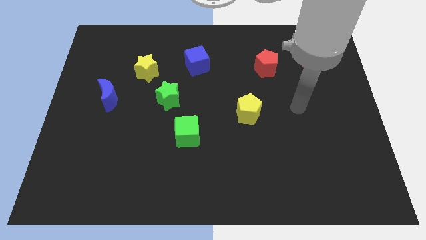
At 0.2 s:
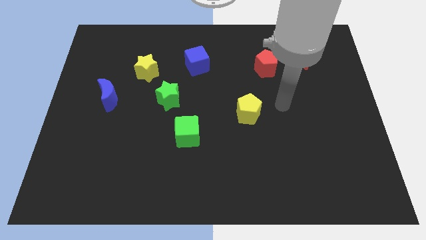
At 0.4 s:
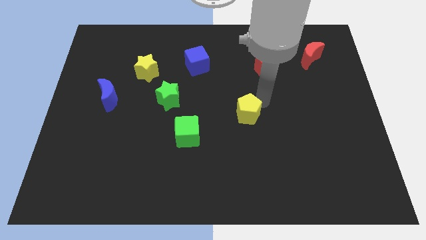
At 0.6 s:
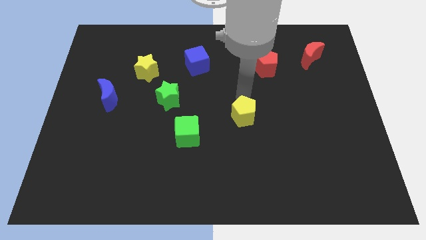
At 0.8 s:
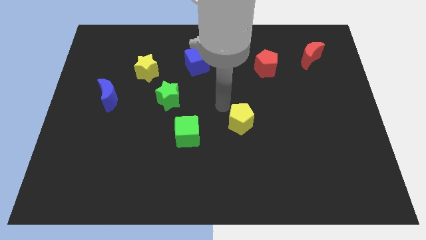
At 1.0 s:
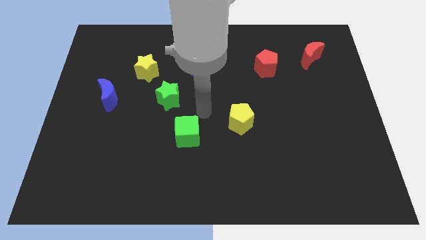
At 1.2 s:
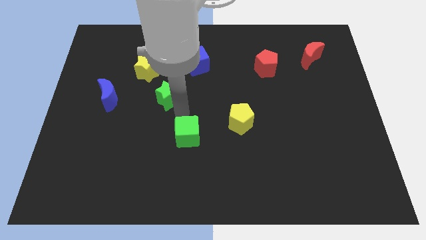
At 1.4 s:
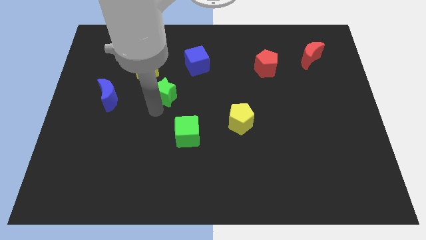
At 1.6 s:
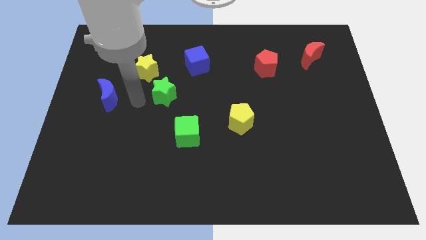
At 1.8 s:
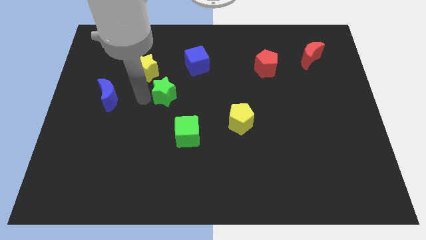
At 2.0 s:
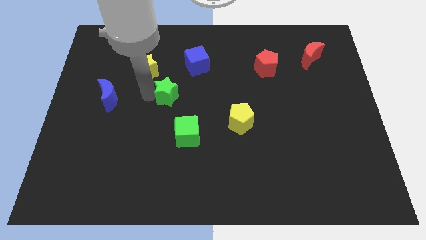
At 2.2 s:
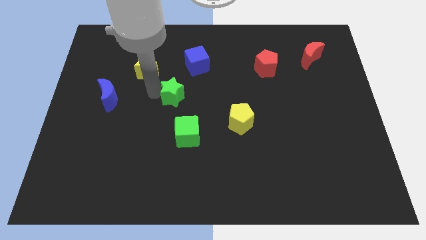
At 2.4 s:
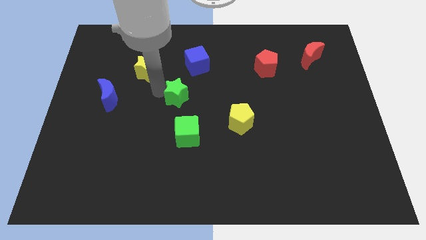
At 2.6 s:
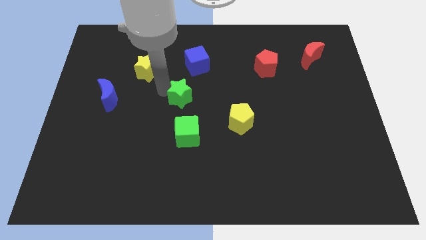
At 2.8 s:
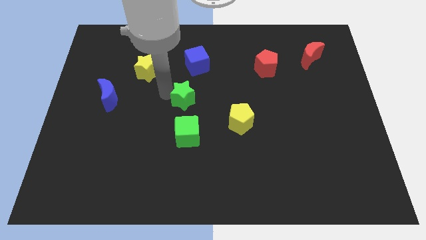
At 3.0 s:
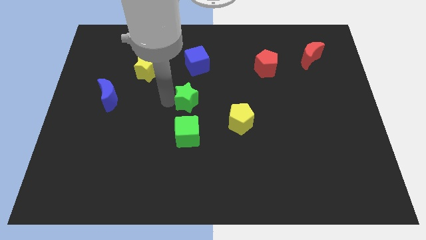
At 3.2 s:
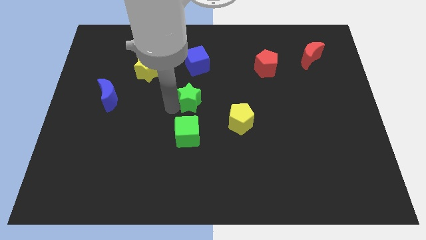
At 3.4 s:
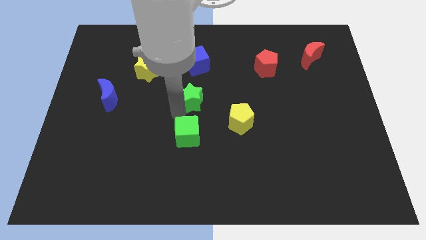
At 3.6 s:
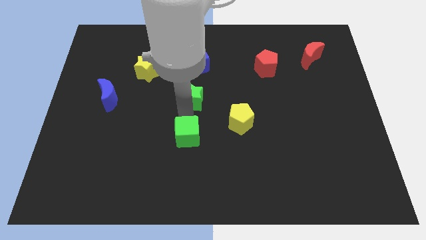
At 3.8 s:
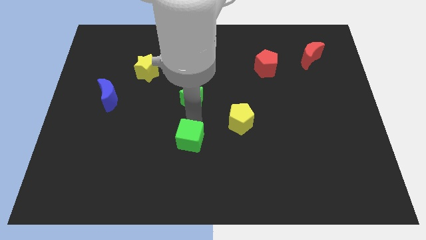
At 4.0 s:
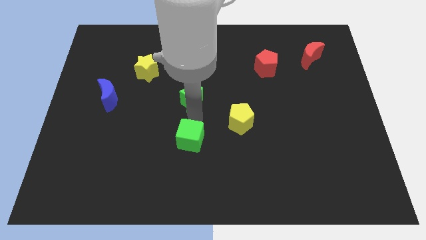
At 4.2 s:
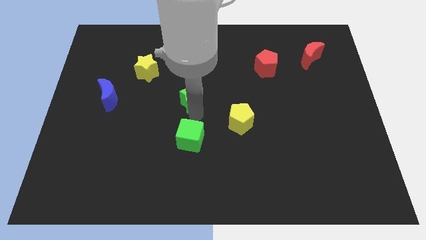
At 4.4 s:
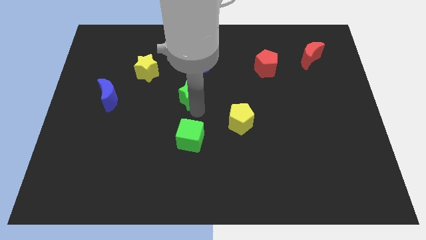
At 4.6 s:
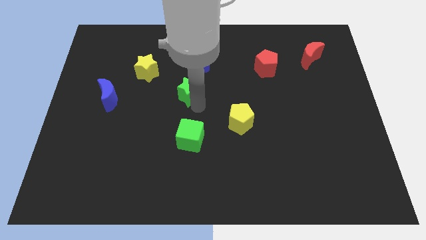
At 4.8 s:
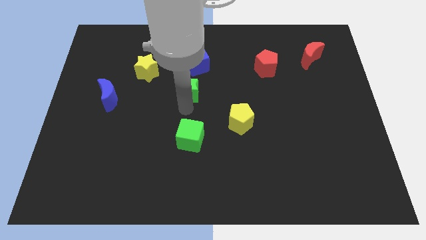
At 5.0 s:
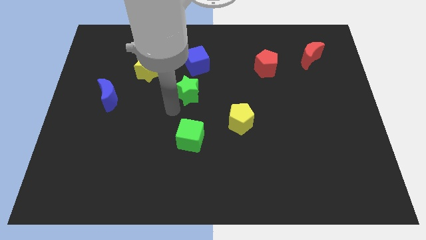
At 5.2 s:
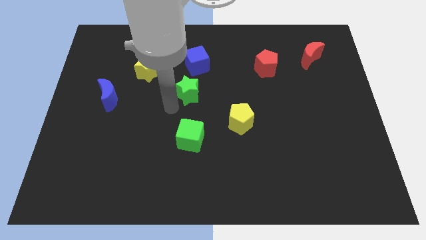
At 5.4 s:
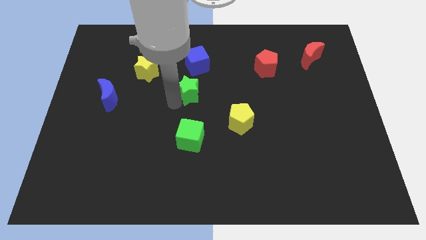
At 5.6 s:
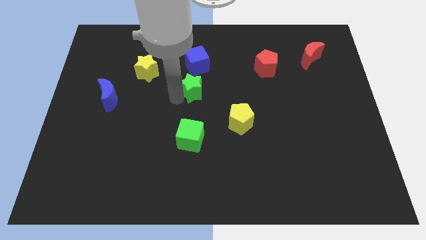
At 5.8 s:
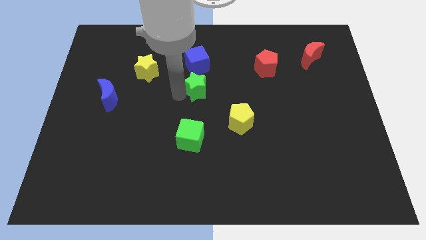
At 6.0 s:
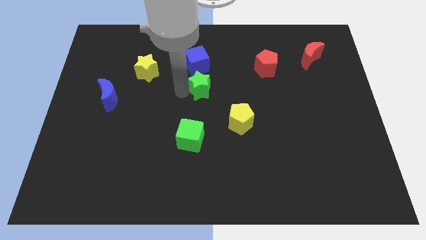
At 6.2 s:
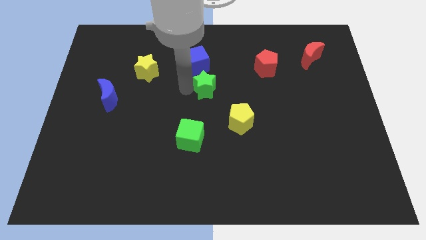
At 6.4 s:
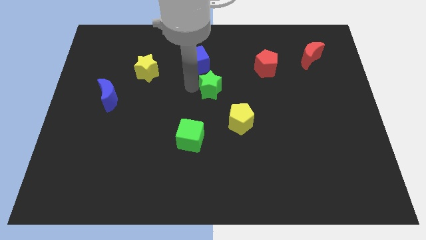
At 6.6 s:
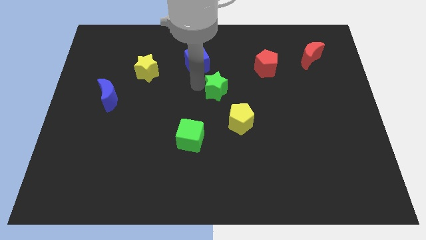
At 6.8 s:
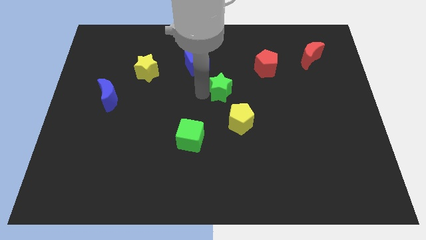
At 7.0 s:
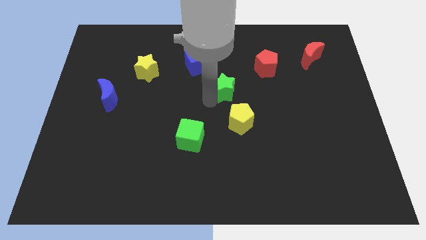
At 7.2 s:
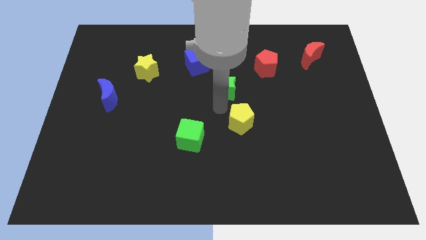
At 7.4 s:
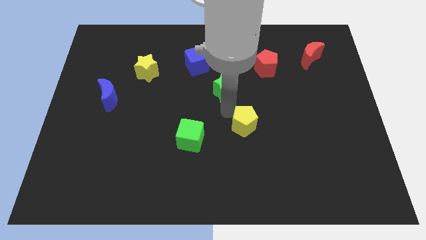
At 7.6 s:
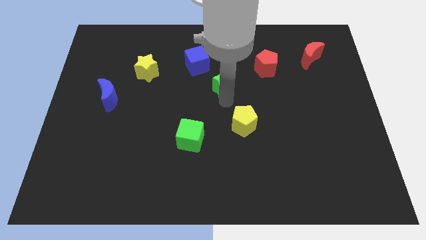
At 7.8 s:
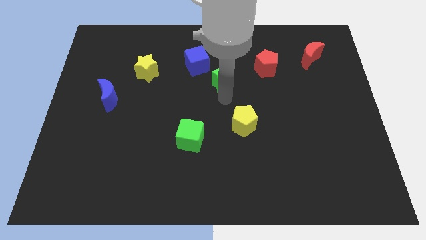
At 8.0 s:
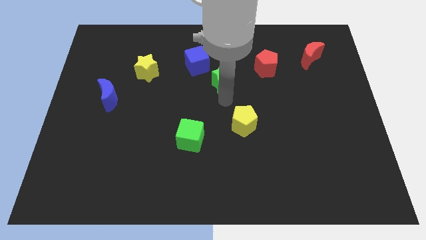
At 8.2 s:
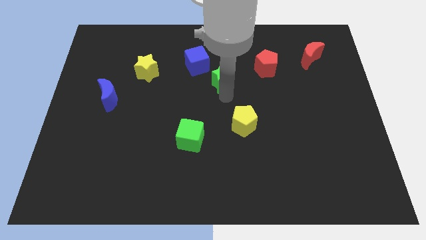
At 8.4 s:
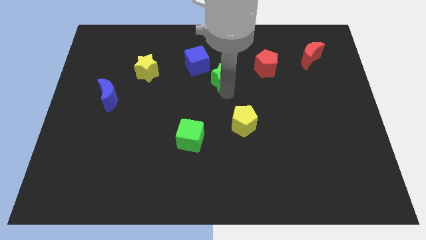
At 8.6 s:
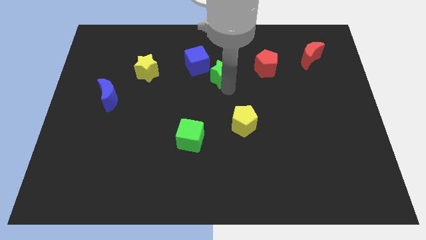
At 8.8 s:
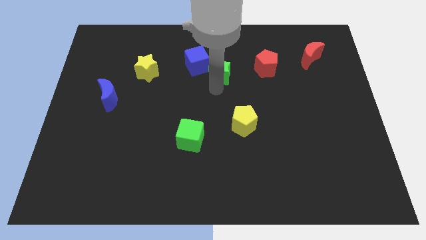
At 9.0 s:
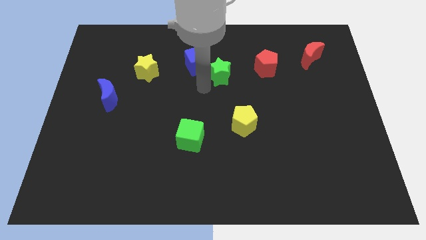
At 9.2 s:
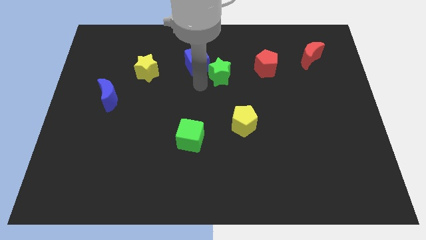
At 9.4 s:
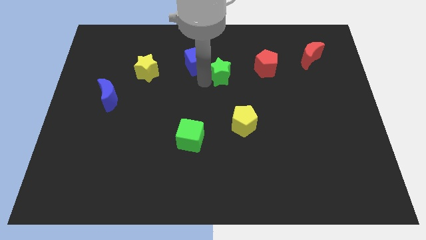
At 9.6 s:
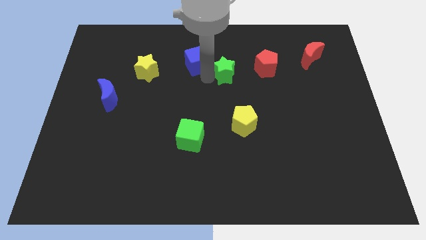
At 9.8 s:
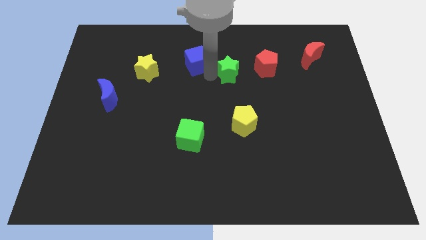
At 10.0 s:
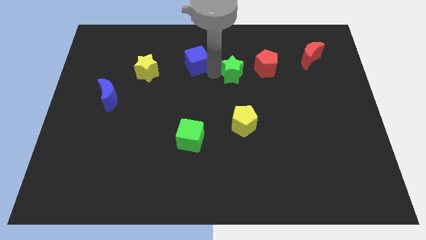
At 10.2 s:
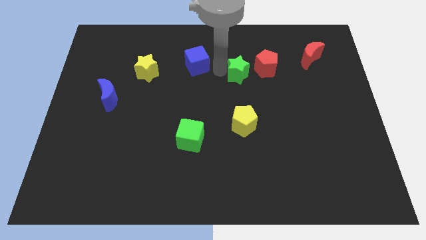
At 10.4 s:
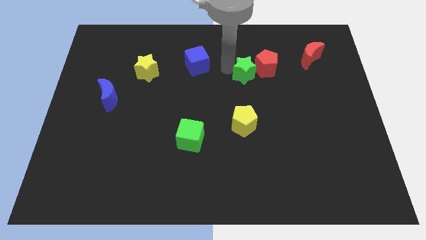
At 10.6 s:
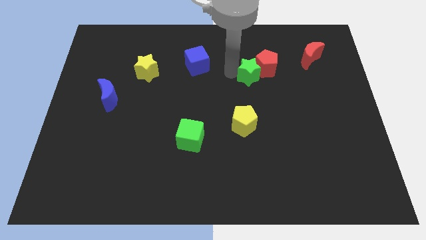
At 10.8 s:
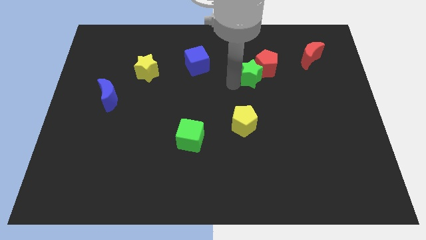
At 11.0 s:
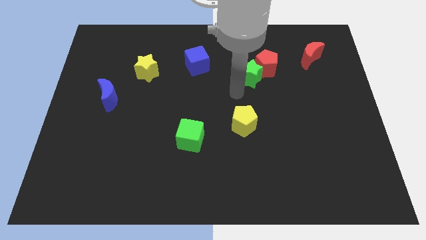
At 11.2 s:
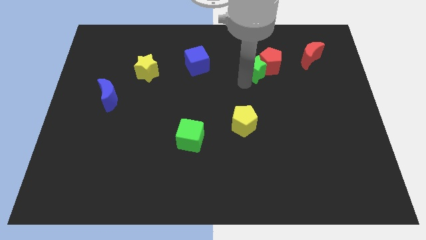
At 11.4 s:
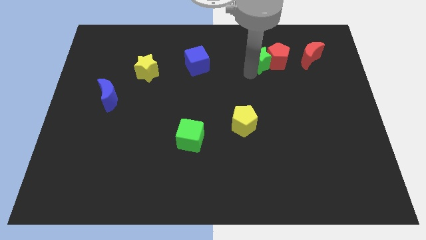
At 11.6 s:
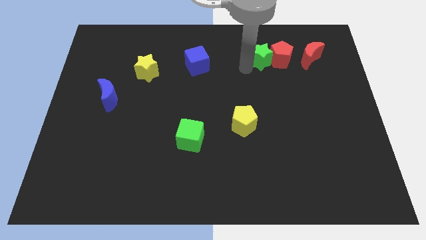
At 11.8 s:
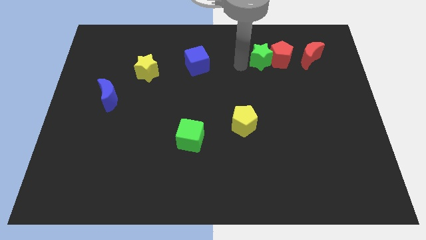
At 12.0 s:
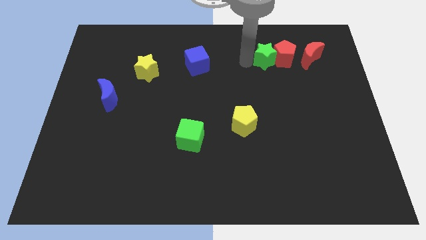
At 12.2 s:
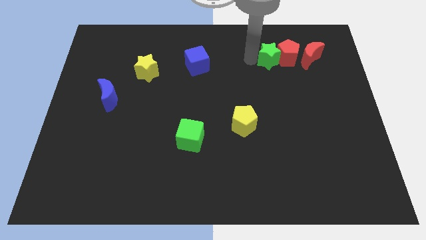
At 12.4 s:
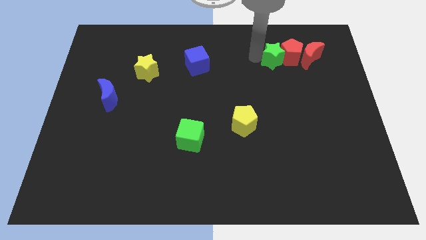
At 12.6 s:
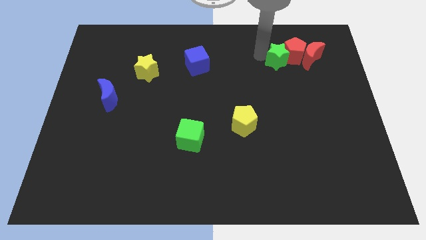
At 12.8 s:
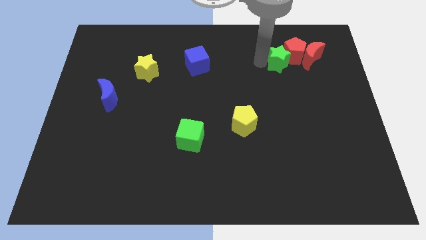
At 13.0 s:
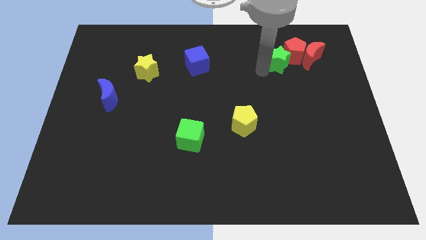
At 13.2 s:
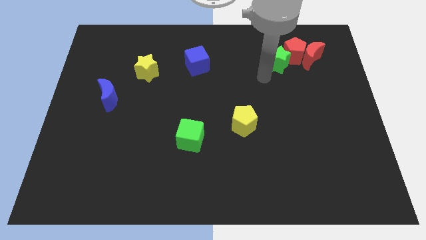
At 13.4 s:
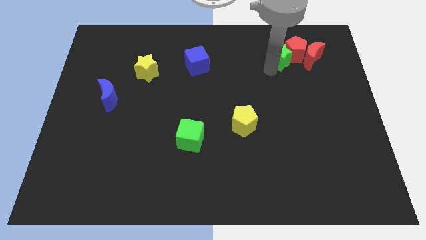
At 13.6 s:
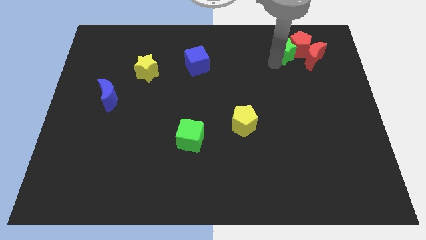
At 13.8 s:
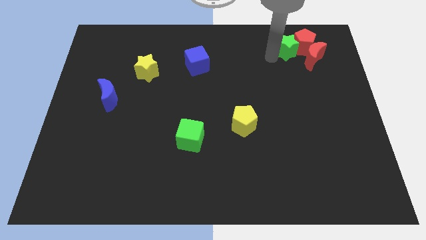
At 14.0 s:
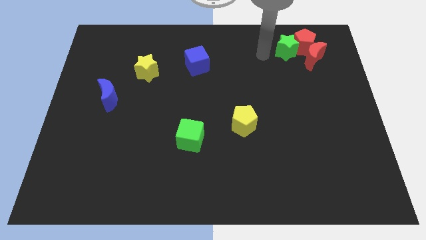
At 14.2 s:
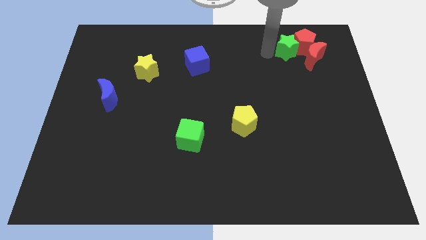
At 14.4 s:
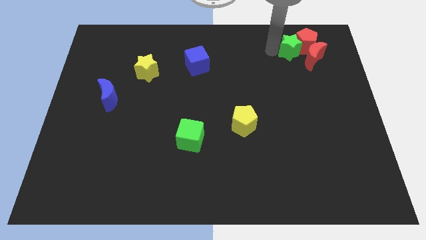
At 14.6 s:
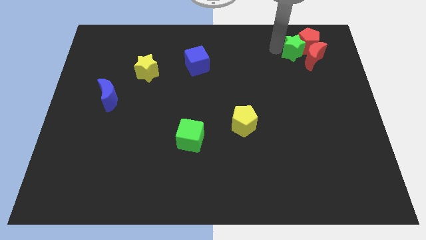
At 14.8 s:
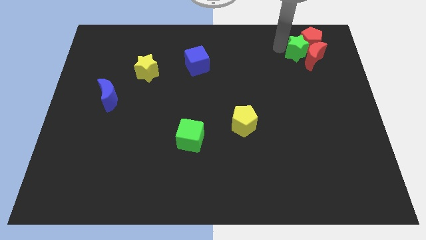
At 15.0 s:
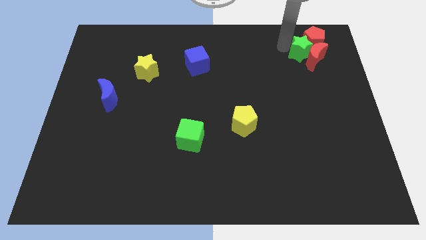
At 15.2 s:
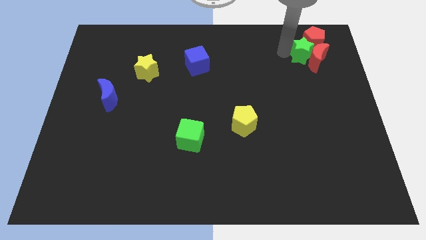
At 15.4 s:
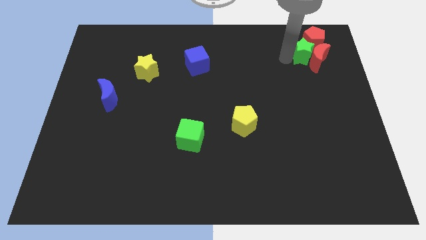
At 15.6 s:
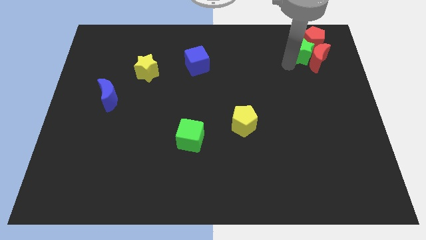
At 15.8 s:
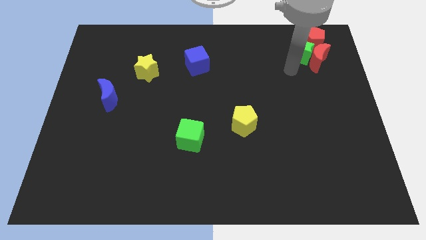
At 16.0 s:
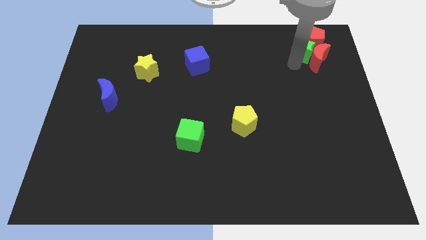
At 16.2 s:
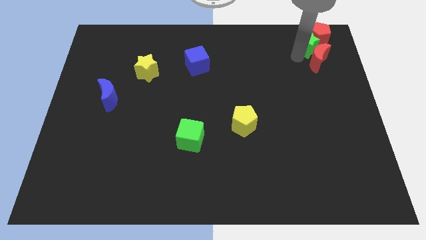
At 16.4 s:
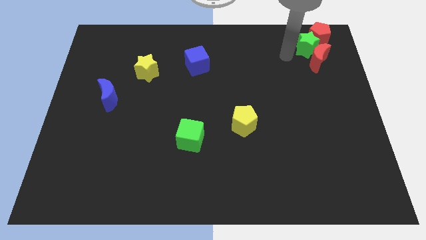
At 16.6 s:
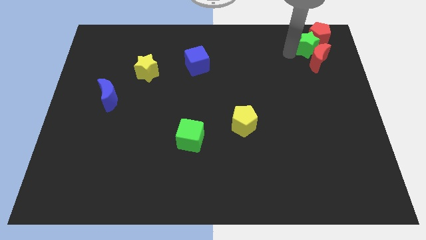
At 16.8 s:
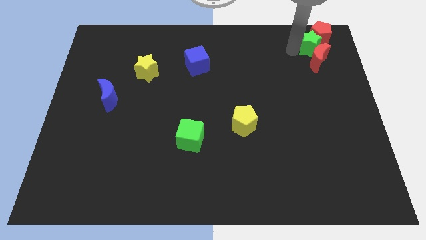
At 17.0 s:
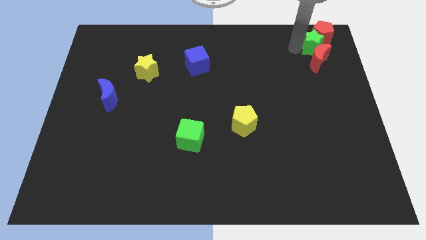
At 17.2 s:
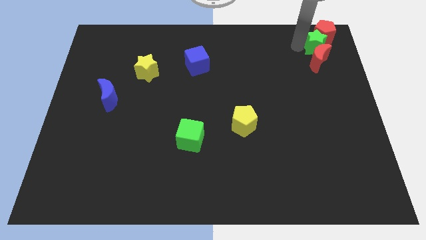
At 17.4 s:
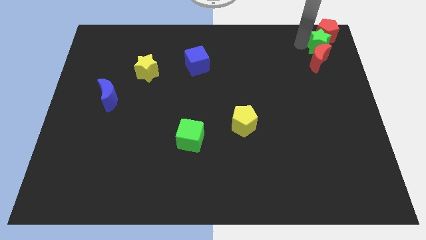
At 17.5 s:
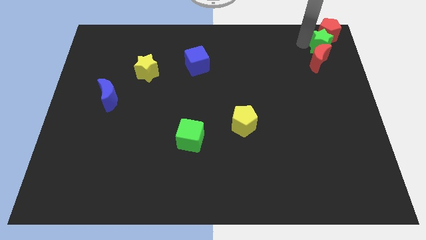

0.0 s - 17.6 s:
push the green star to the top right of the board
